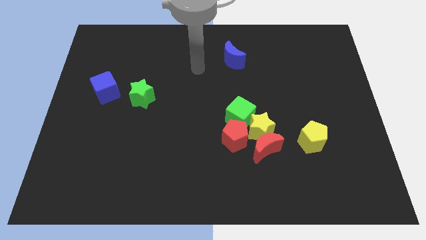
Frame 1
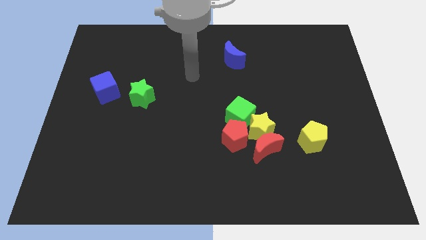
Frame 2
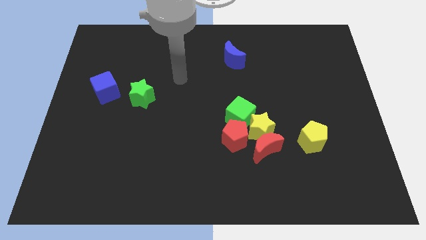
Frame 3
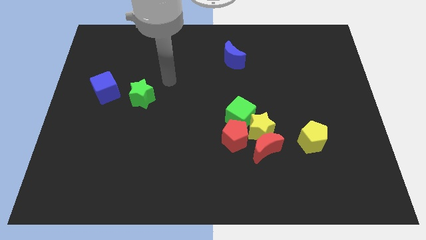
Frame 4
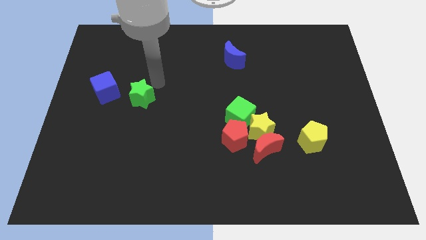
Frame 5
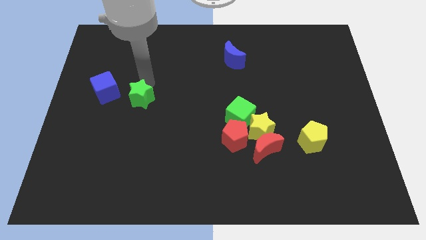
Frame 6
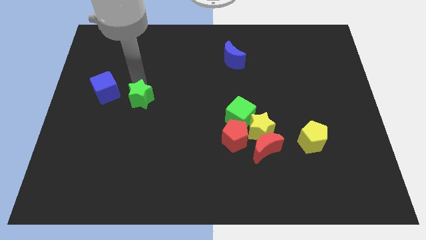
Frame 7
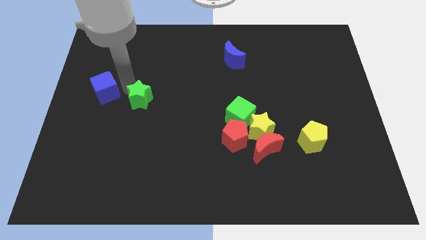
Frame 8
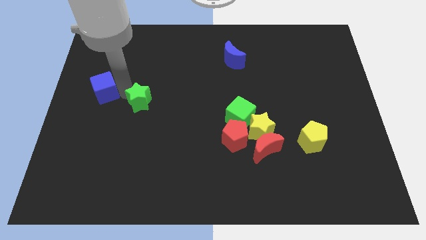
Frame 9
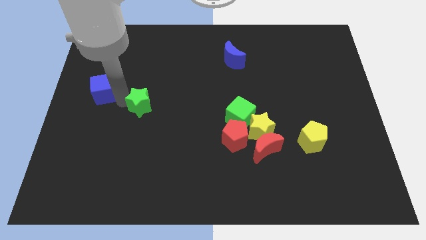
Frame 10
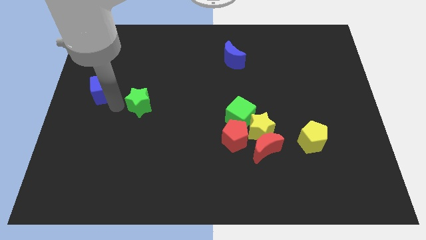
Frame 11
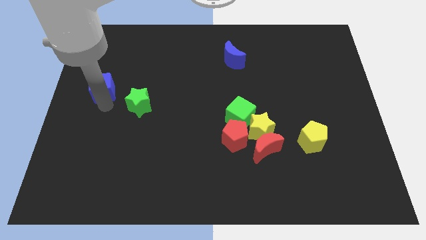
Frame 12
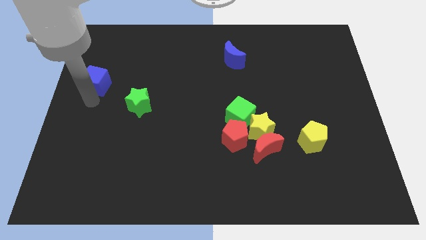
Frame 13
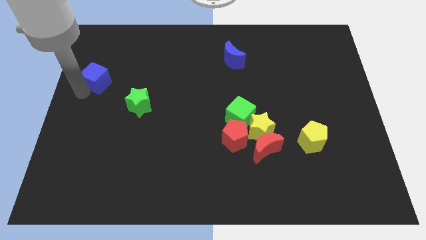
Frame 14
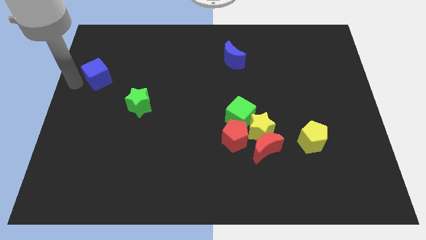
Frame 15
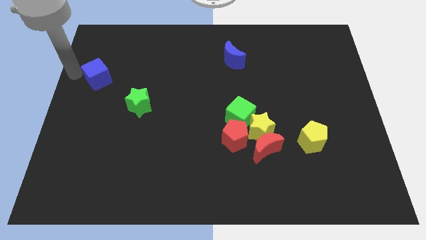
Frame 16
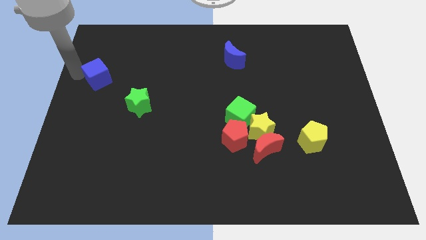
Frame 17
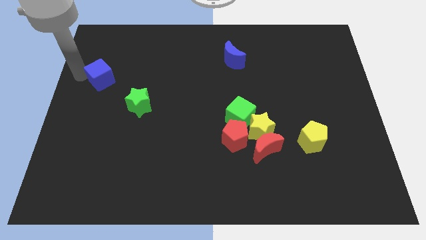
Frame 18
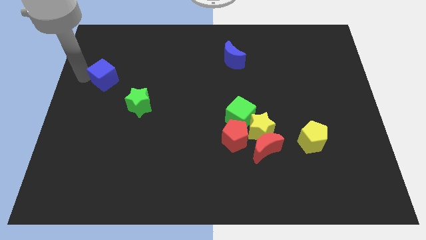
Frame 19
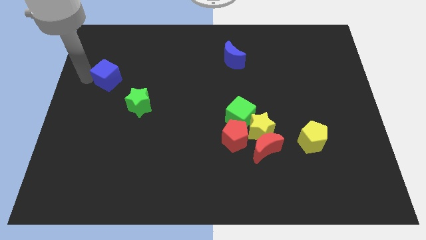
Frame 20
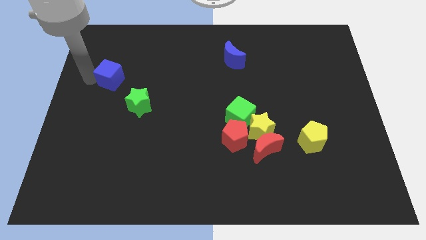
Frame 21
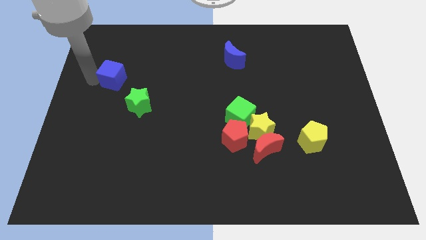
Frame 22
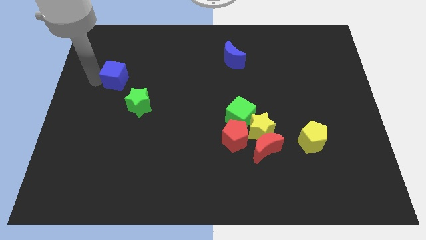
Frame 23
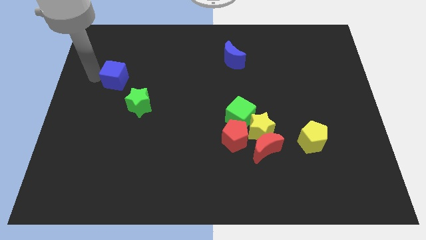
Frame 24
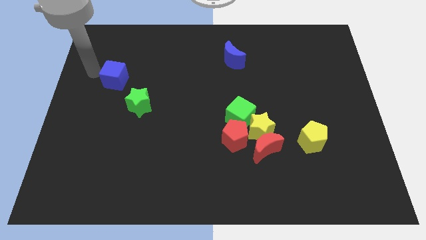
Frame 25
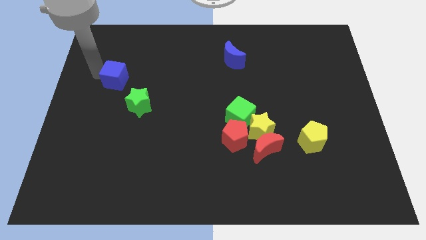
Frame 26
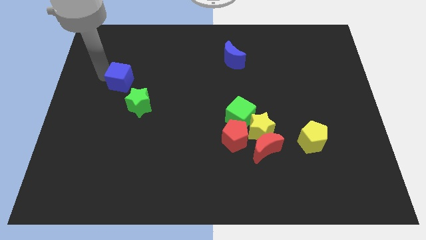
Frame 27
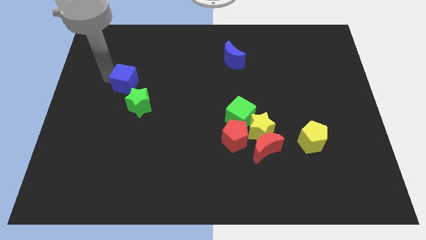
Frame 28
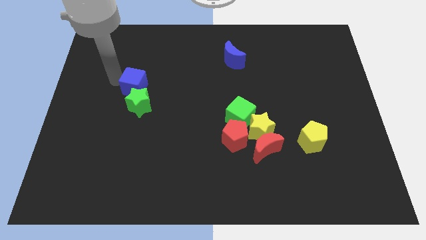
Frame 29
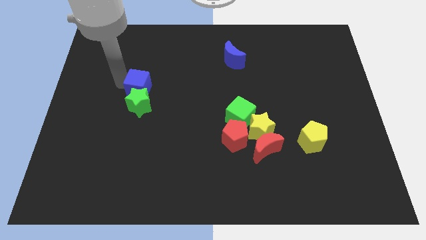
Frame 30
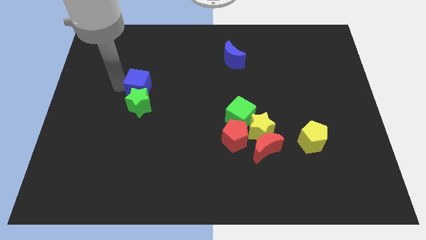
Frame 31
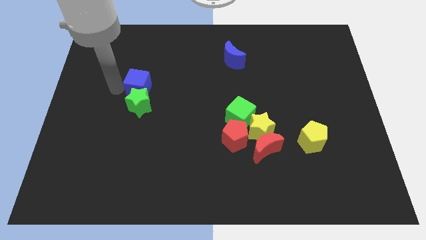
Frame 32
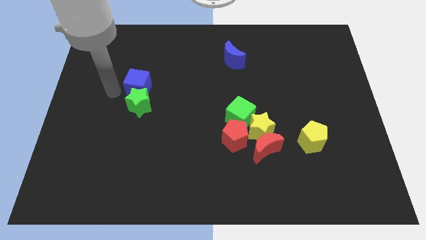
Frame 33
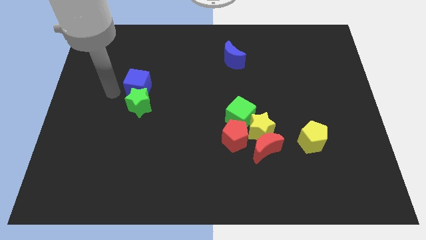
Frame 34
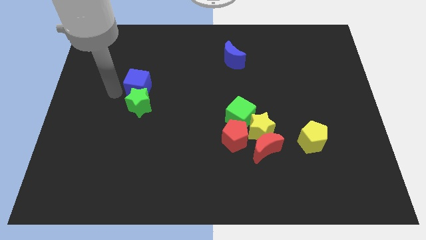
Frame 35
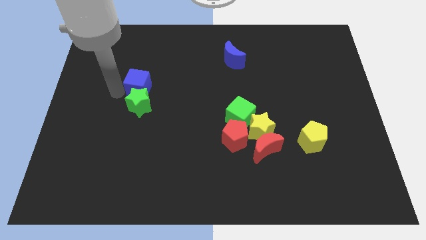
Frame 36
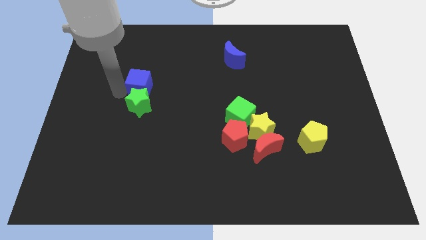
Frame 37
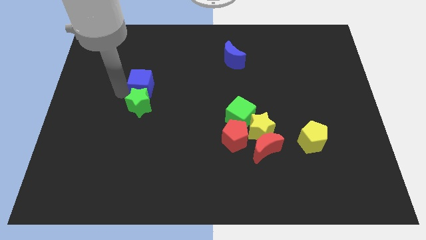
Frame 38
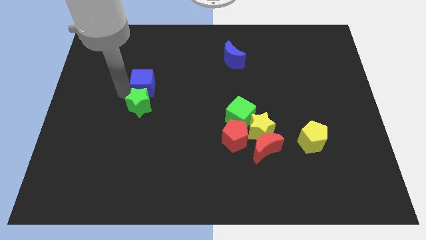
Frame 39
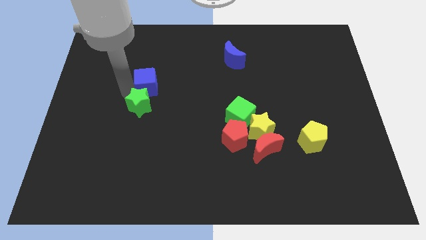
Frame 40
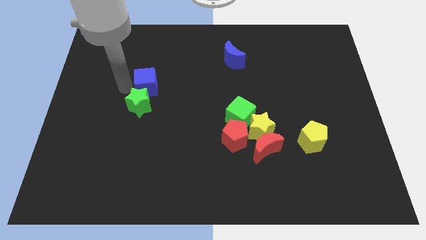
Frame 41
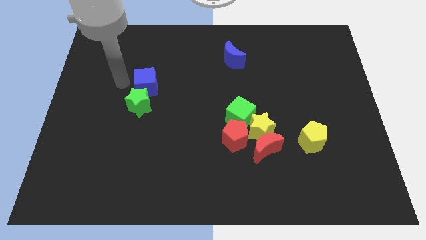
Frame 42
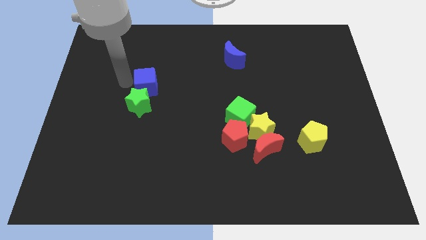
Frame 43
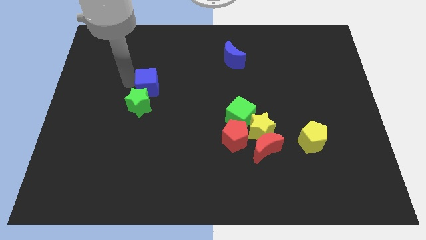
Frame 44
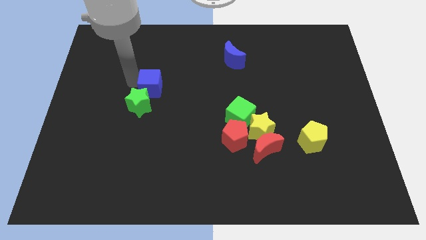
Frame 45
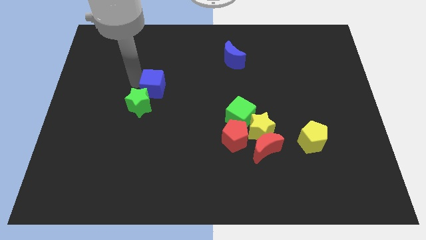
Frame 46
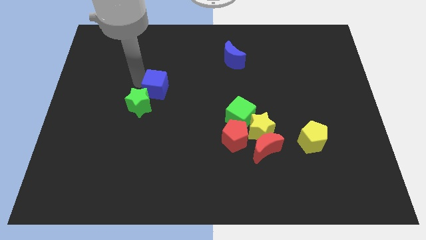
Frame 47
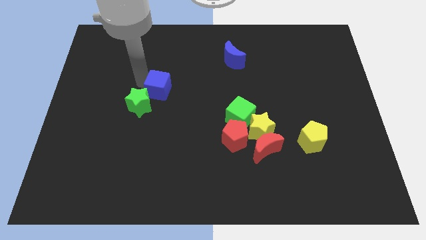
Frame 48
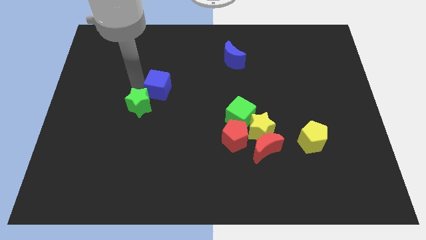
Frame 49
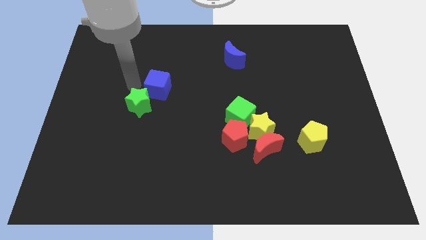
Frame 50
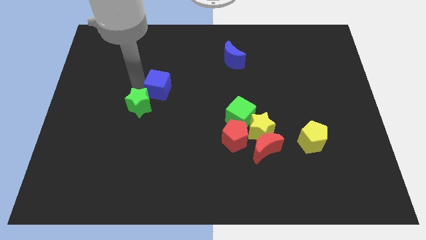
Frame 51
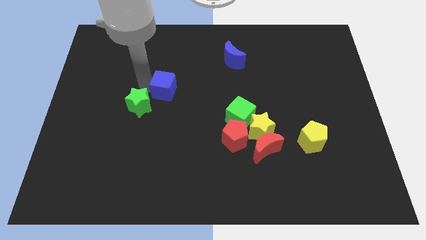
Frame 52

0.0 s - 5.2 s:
put the blue cube to the center

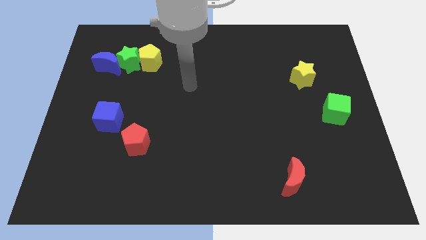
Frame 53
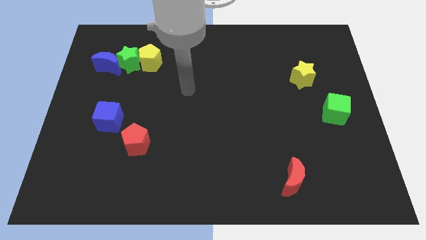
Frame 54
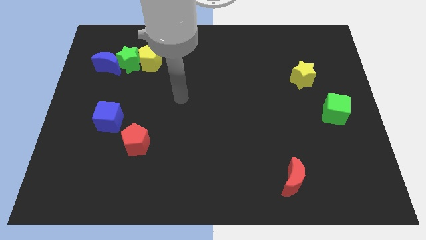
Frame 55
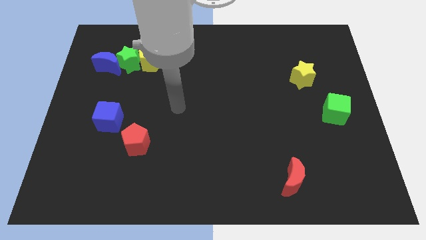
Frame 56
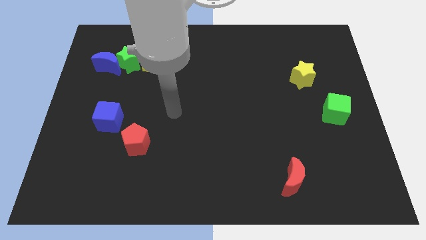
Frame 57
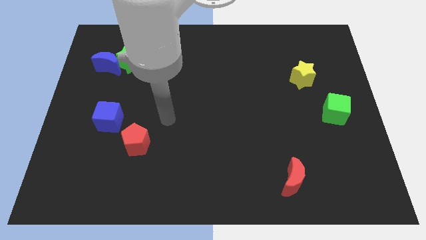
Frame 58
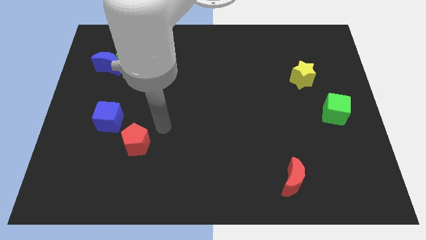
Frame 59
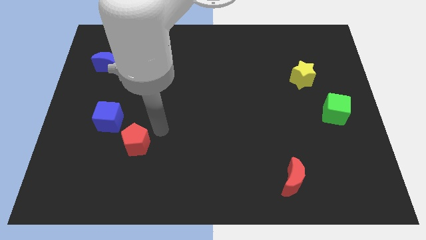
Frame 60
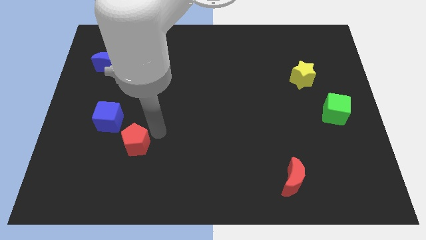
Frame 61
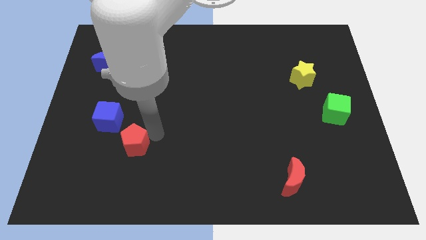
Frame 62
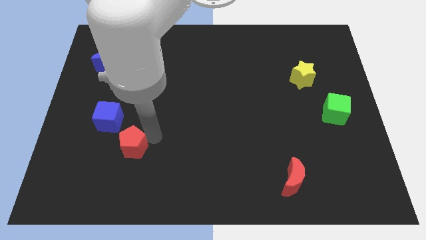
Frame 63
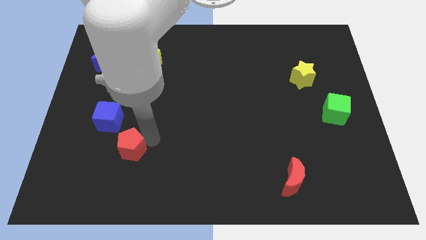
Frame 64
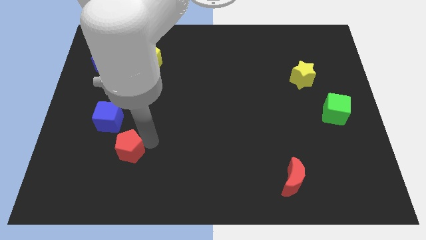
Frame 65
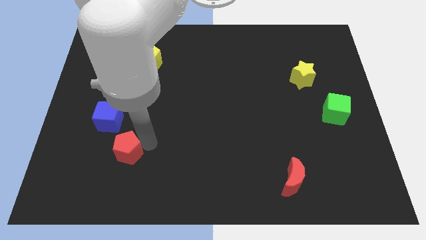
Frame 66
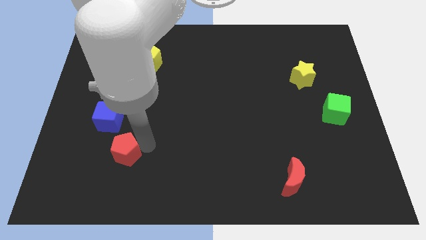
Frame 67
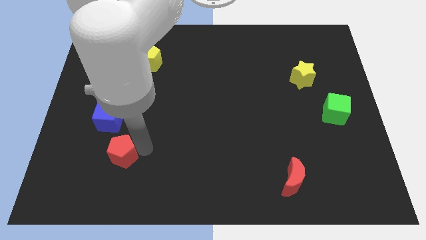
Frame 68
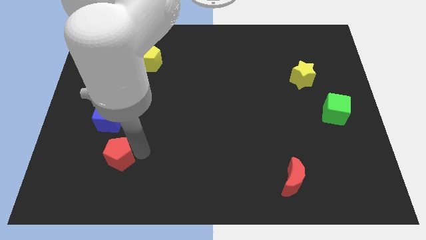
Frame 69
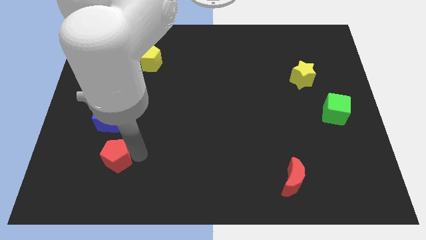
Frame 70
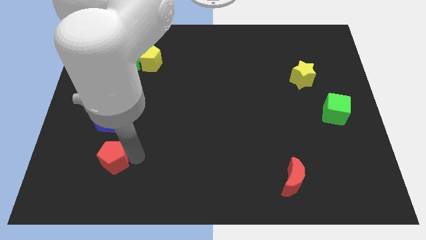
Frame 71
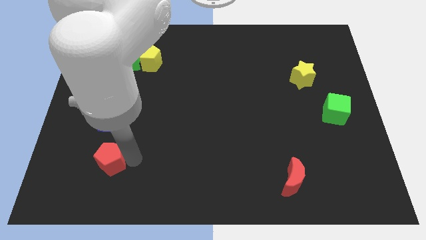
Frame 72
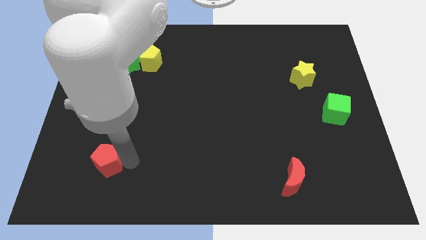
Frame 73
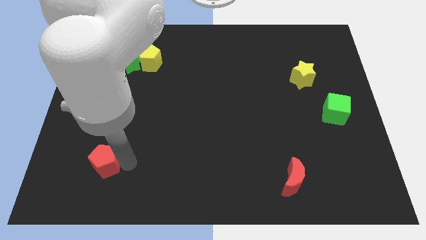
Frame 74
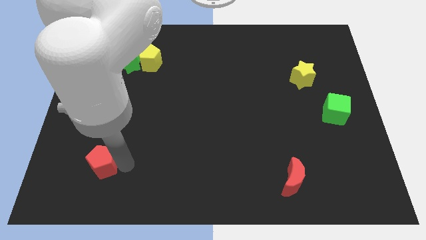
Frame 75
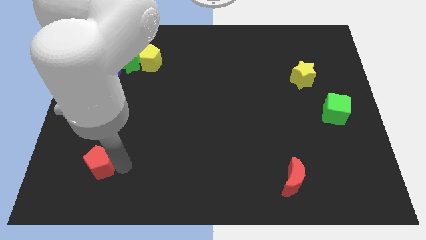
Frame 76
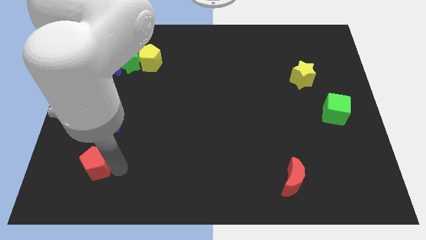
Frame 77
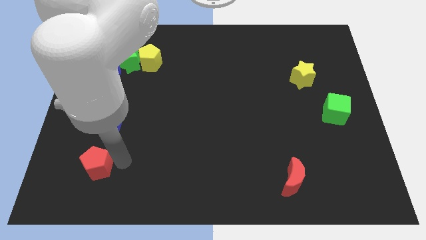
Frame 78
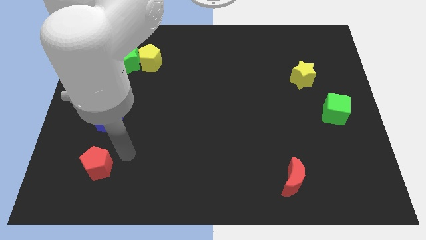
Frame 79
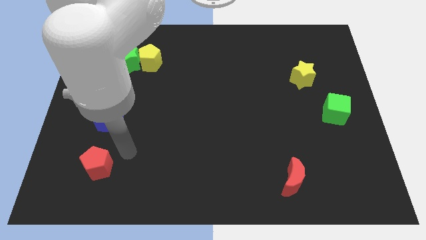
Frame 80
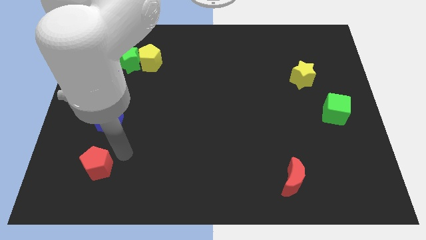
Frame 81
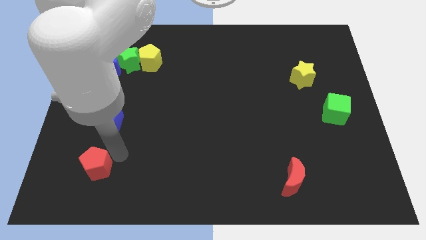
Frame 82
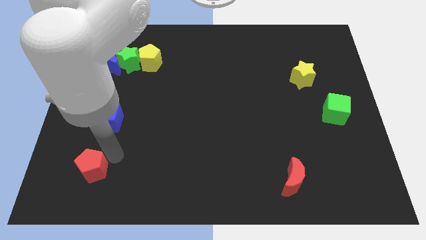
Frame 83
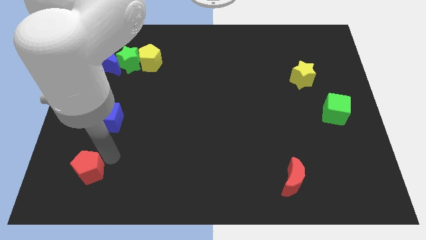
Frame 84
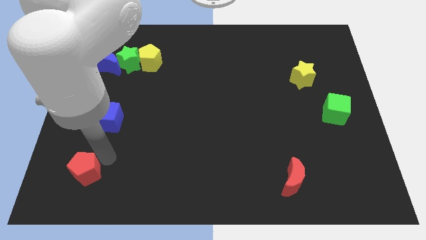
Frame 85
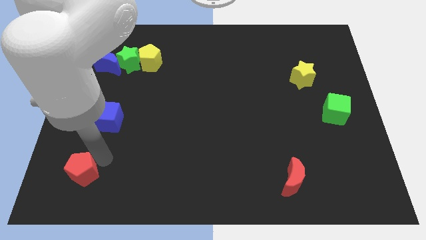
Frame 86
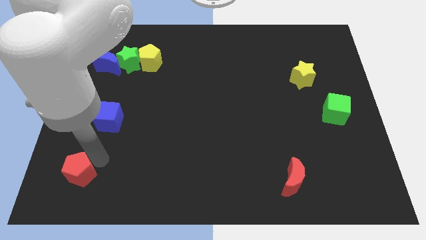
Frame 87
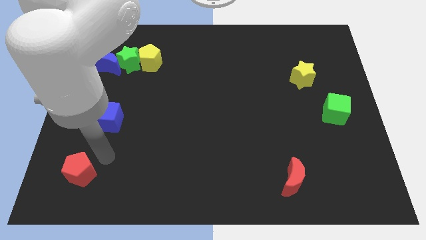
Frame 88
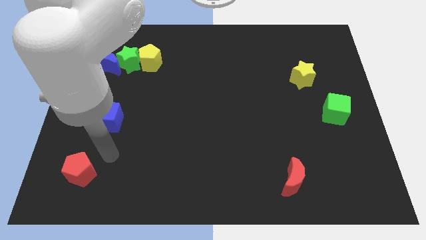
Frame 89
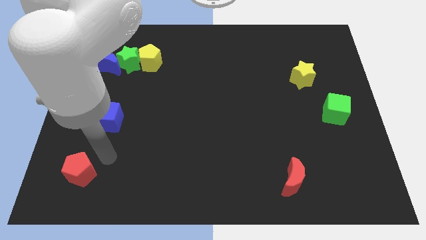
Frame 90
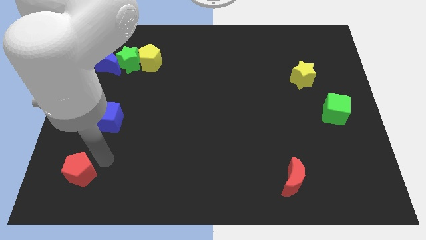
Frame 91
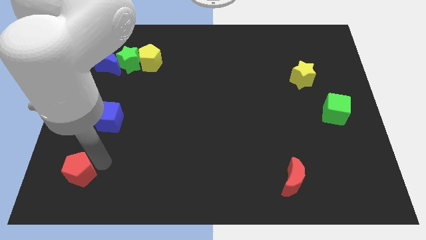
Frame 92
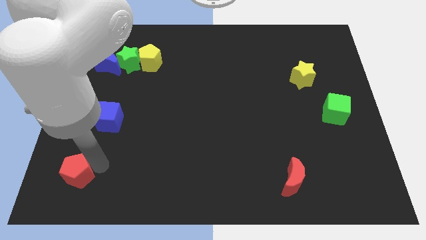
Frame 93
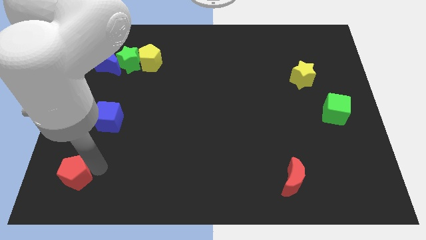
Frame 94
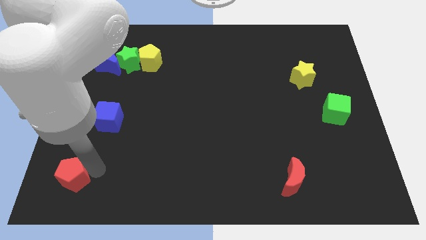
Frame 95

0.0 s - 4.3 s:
push the red pentagon to the bottom left corner
